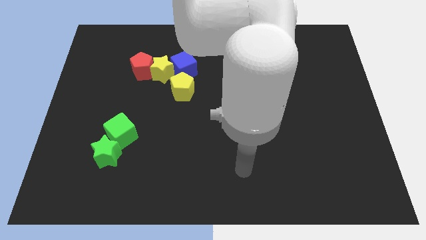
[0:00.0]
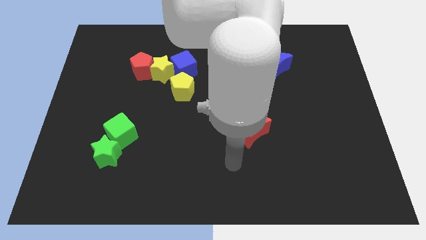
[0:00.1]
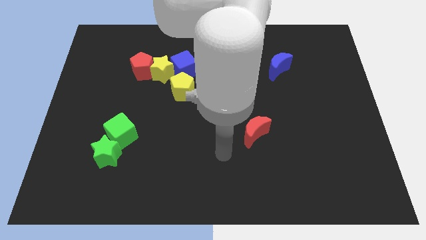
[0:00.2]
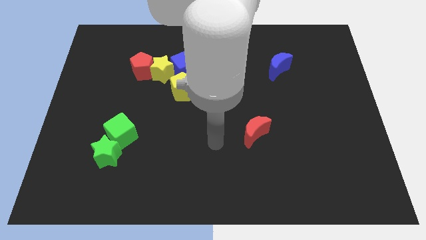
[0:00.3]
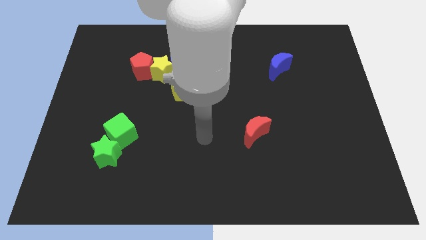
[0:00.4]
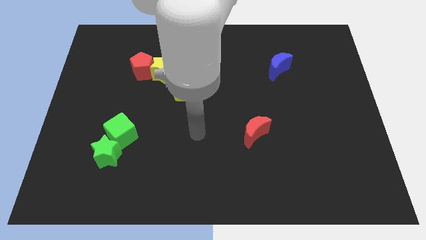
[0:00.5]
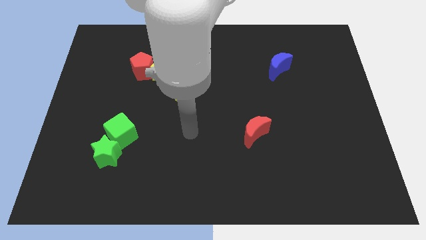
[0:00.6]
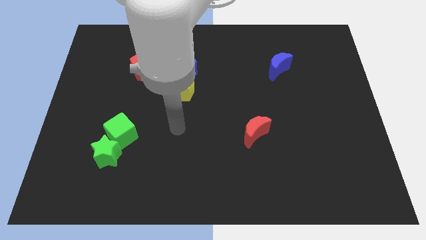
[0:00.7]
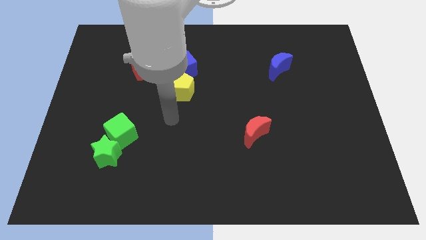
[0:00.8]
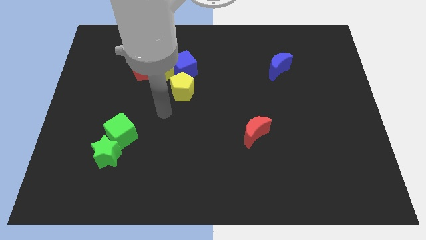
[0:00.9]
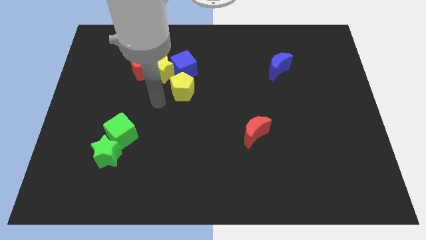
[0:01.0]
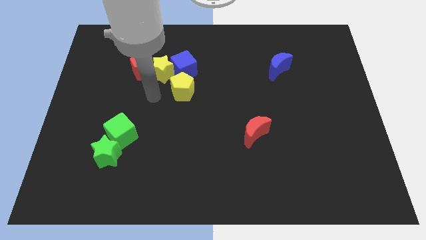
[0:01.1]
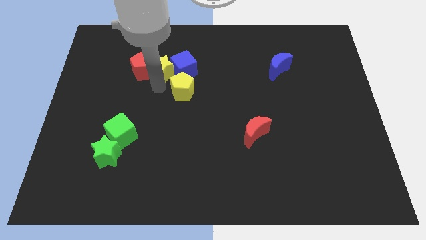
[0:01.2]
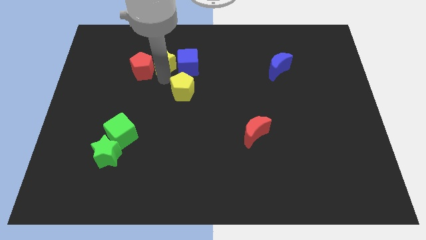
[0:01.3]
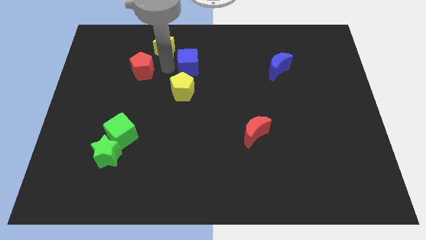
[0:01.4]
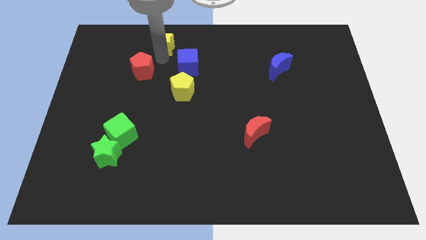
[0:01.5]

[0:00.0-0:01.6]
separate the red pentagon from the yellow star

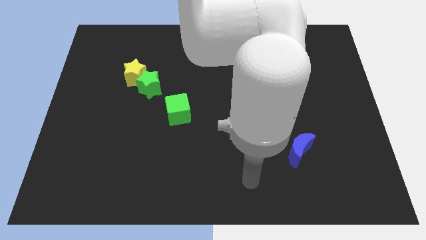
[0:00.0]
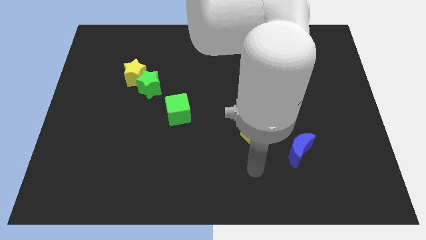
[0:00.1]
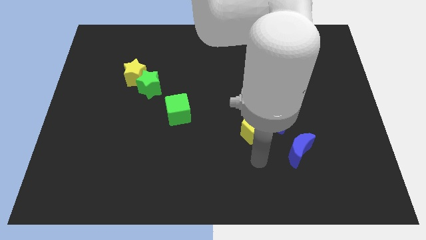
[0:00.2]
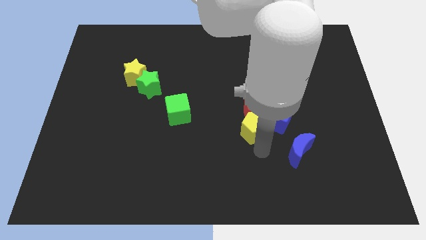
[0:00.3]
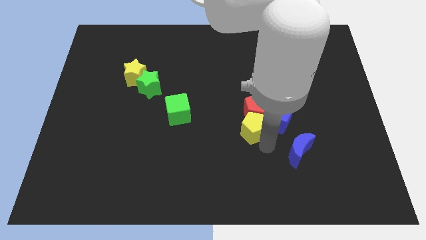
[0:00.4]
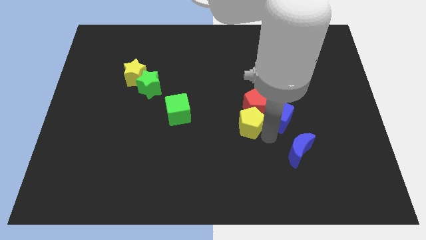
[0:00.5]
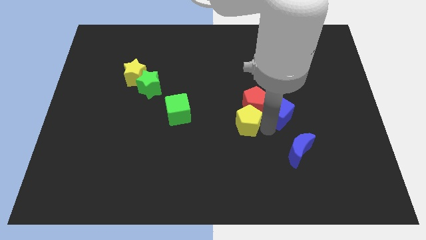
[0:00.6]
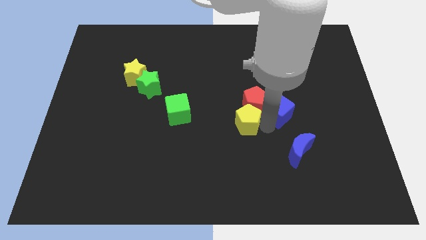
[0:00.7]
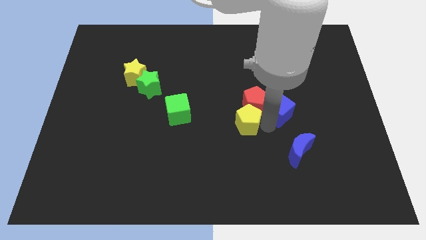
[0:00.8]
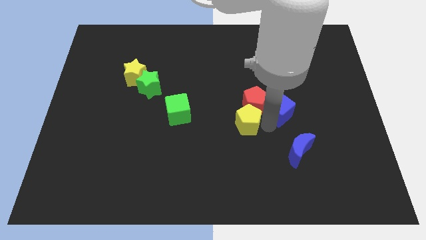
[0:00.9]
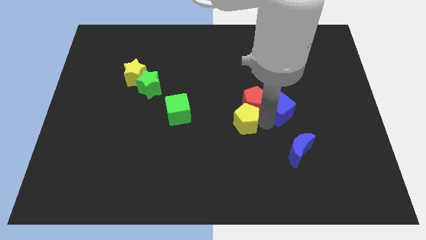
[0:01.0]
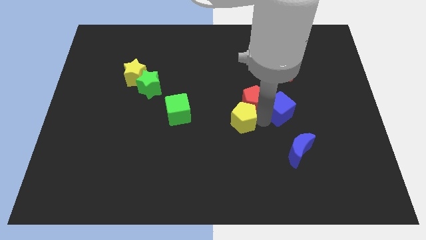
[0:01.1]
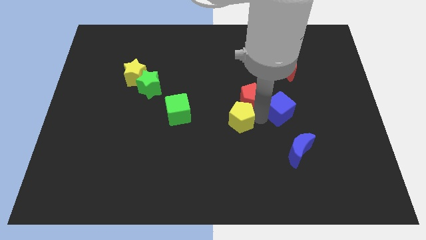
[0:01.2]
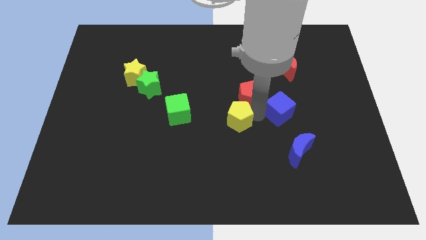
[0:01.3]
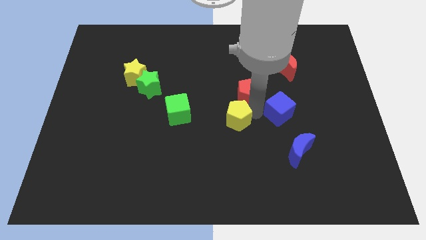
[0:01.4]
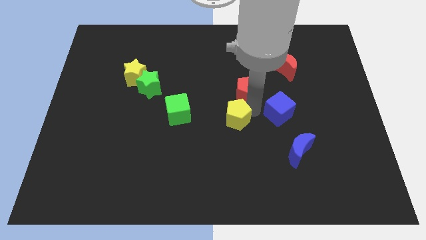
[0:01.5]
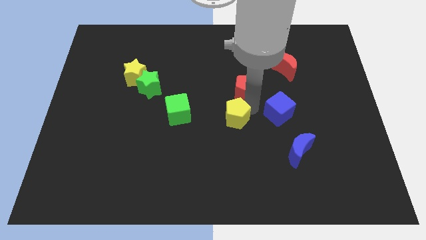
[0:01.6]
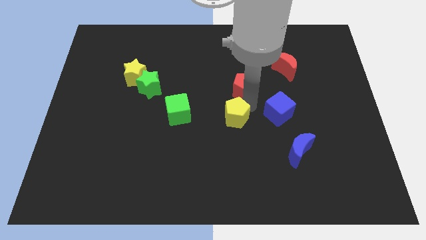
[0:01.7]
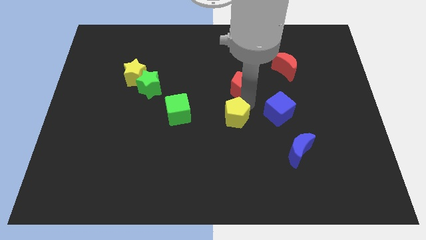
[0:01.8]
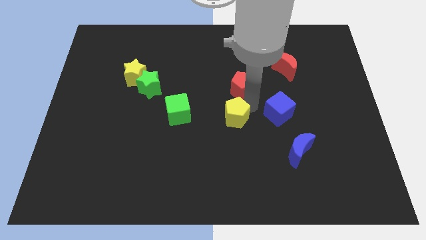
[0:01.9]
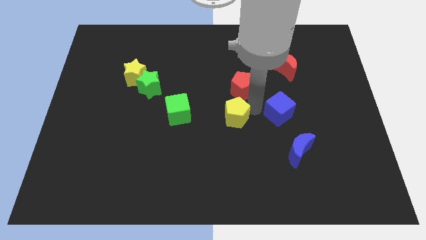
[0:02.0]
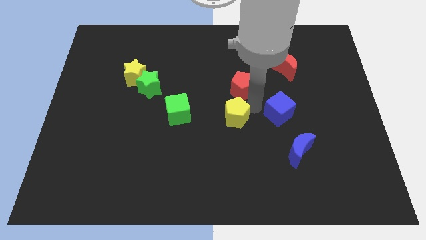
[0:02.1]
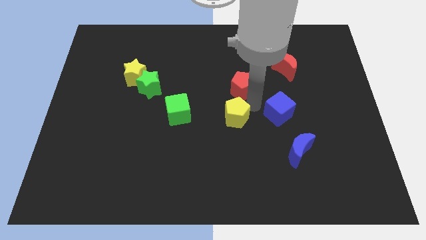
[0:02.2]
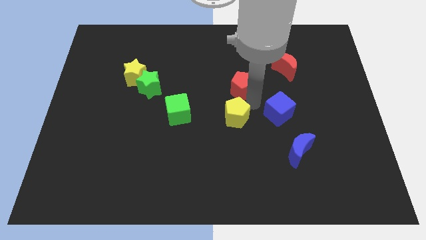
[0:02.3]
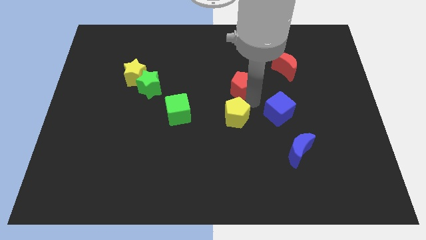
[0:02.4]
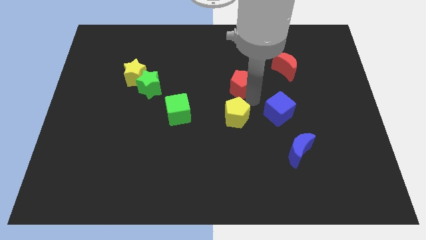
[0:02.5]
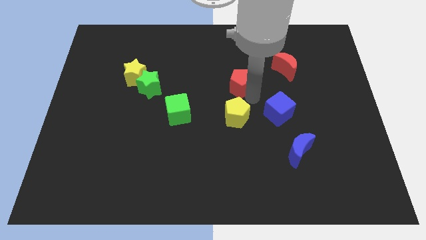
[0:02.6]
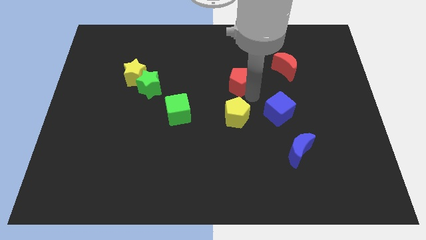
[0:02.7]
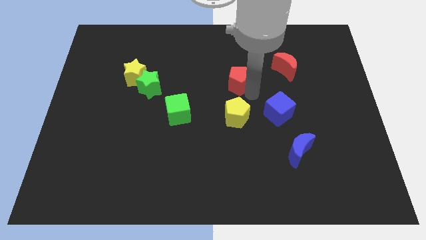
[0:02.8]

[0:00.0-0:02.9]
separate the red pentagon from the blue cube and yellow pentagon

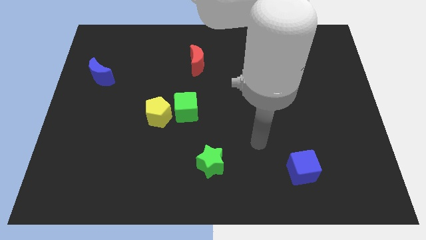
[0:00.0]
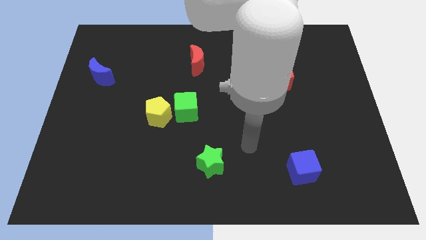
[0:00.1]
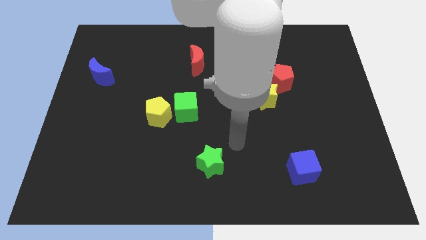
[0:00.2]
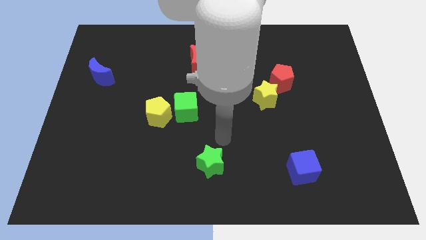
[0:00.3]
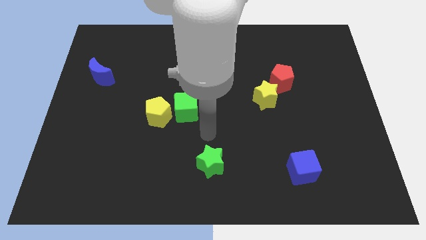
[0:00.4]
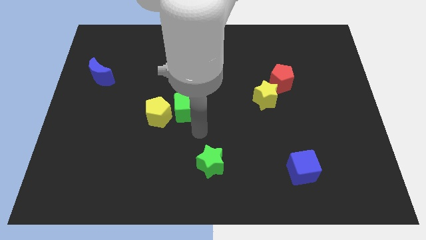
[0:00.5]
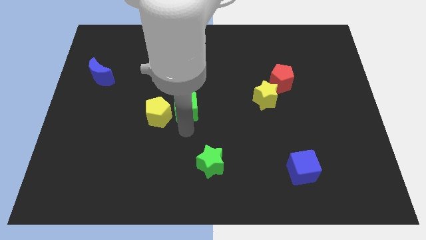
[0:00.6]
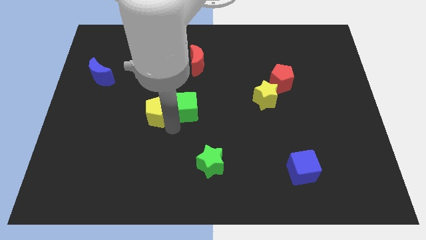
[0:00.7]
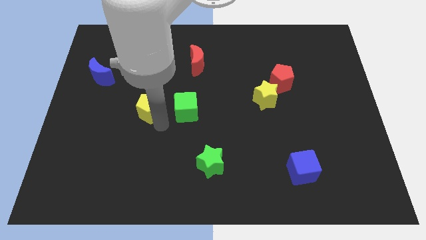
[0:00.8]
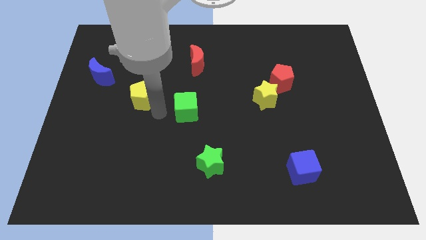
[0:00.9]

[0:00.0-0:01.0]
separate the green cube from the yellow pentagon

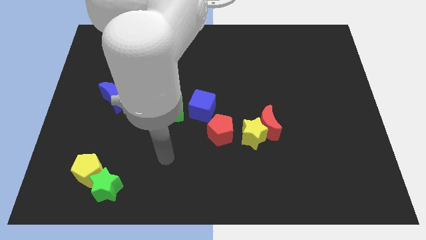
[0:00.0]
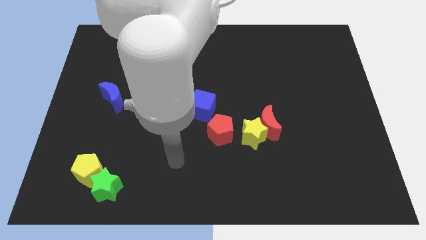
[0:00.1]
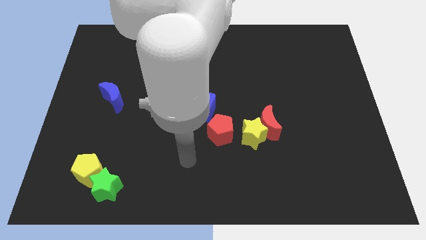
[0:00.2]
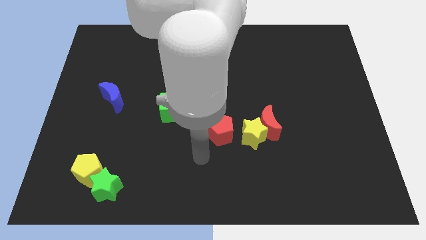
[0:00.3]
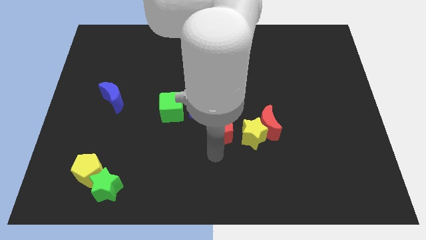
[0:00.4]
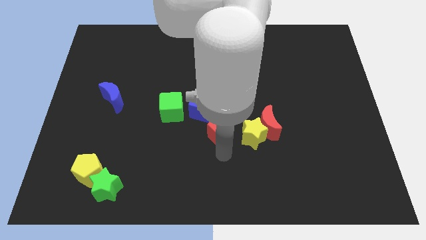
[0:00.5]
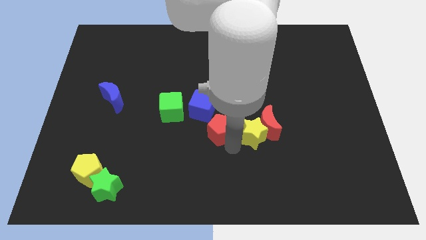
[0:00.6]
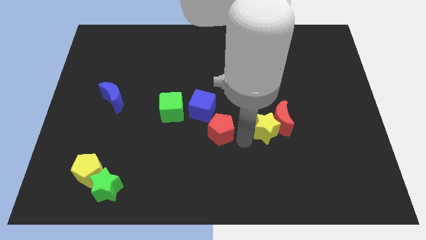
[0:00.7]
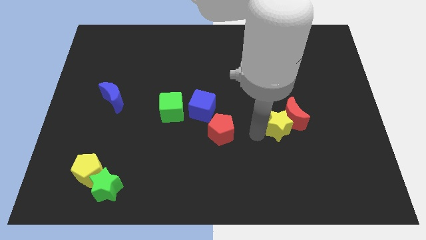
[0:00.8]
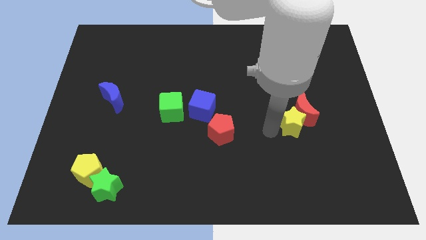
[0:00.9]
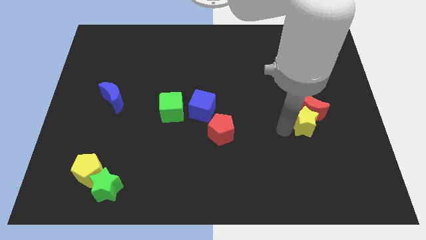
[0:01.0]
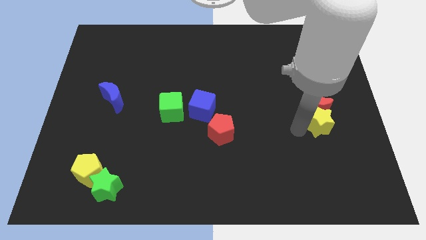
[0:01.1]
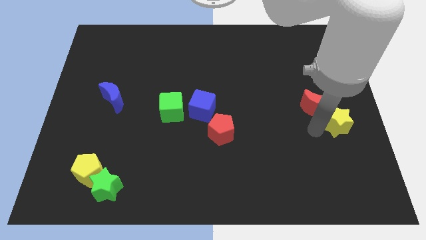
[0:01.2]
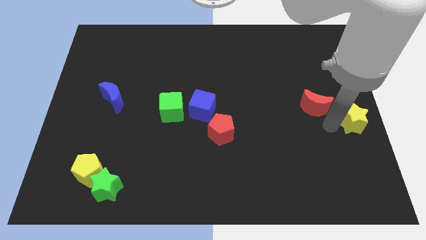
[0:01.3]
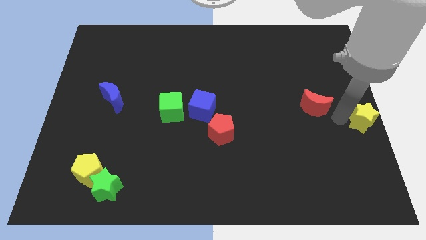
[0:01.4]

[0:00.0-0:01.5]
separate the red moon from the yellow star

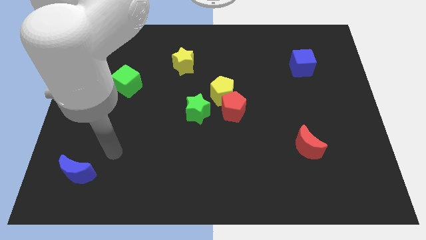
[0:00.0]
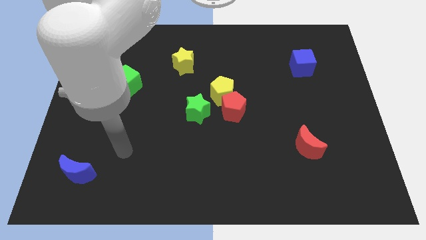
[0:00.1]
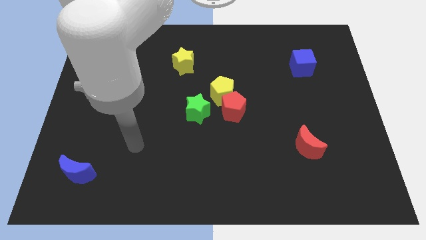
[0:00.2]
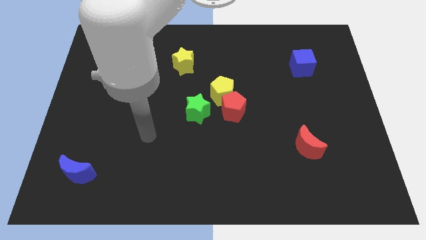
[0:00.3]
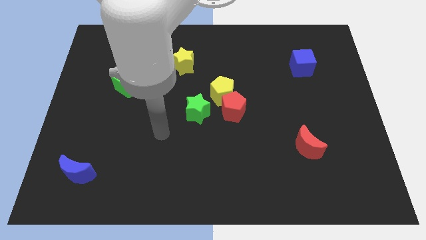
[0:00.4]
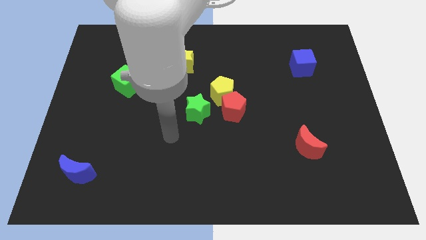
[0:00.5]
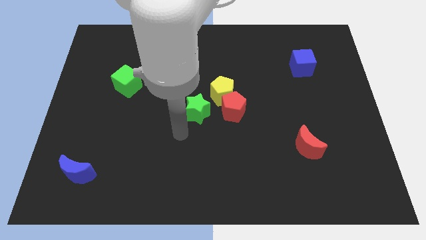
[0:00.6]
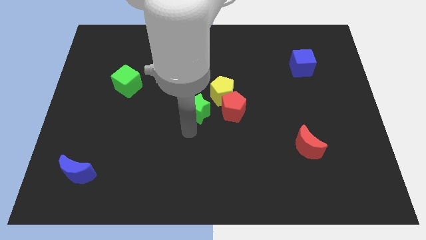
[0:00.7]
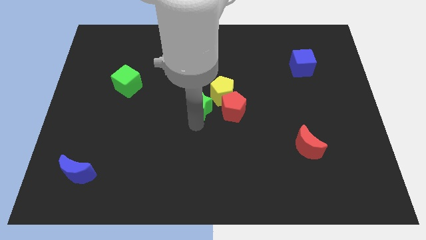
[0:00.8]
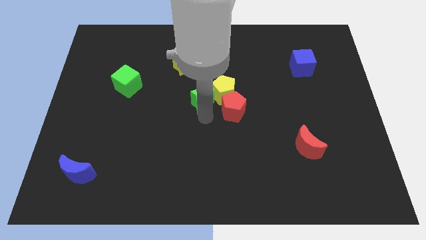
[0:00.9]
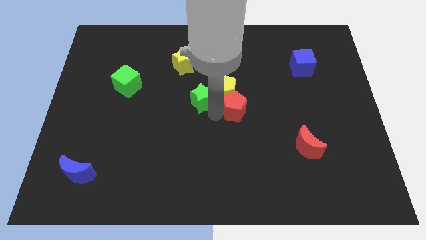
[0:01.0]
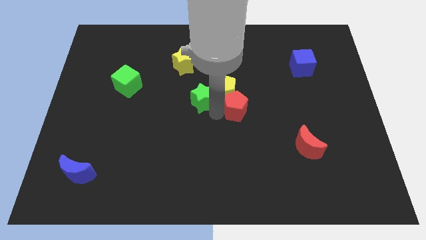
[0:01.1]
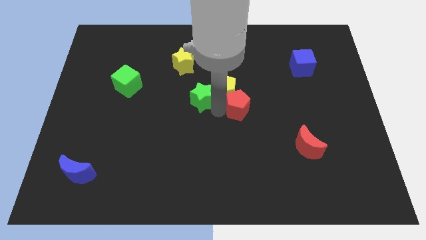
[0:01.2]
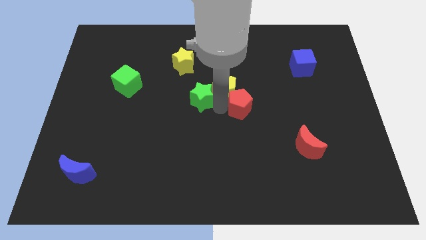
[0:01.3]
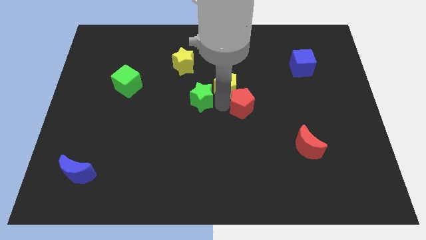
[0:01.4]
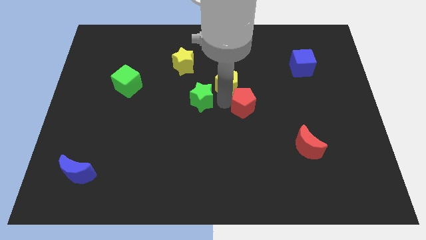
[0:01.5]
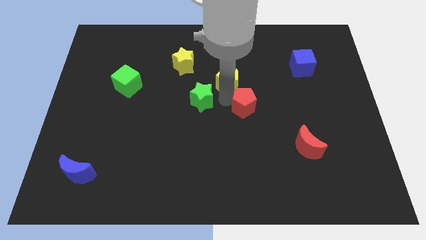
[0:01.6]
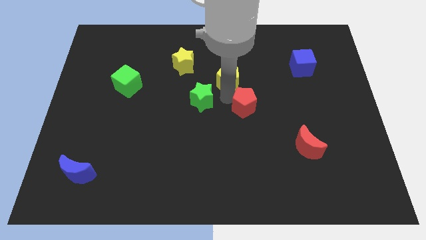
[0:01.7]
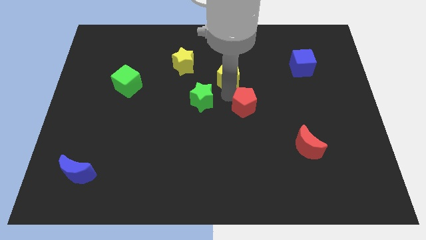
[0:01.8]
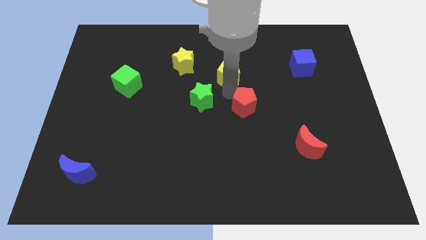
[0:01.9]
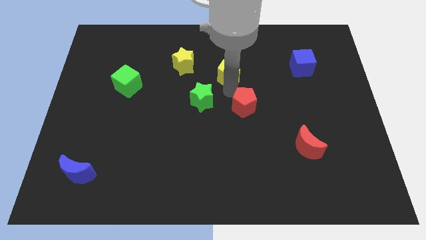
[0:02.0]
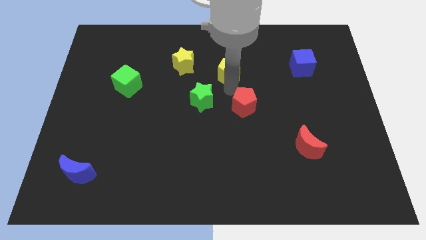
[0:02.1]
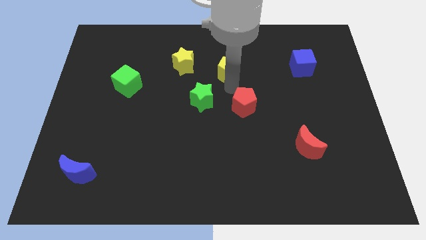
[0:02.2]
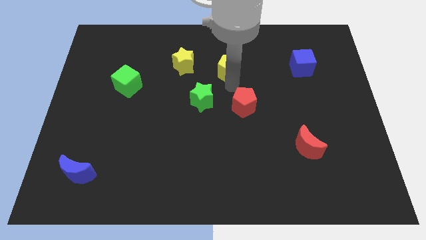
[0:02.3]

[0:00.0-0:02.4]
pull the yellow pentagon apart from the red pentagon and green star
